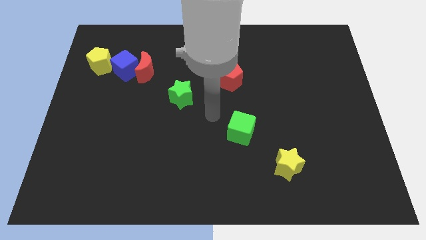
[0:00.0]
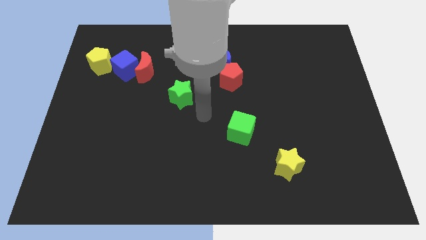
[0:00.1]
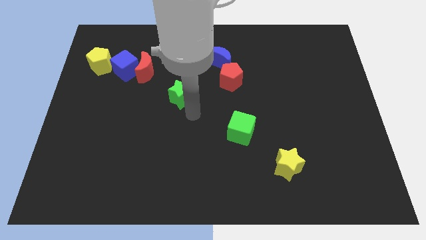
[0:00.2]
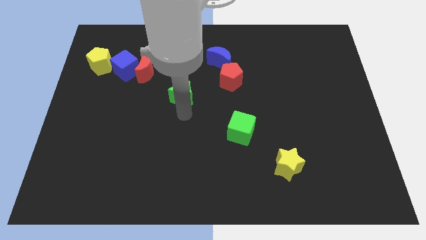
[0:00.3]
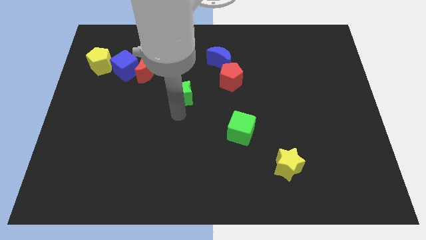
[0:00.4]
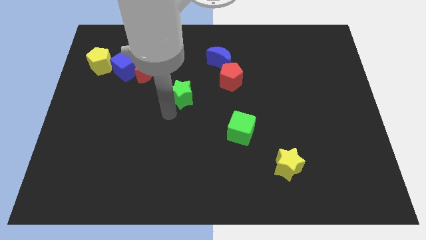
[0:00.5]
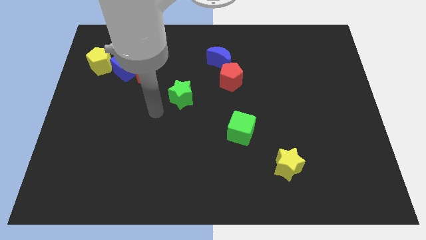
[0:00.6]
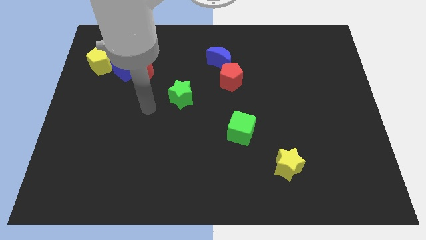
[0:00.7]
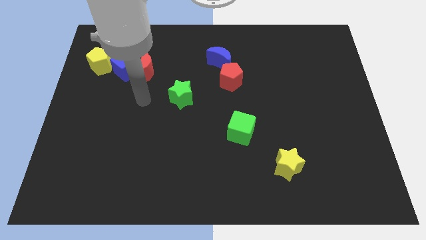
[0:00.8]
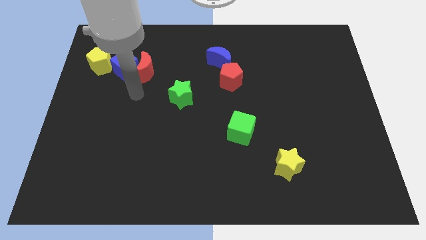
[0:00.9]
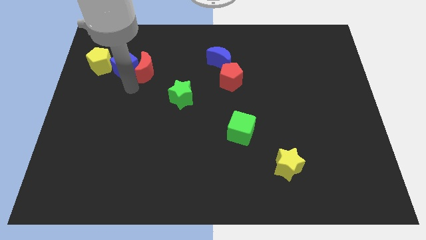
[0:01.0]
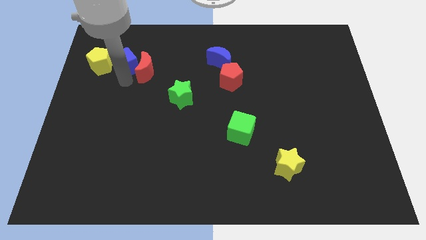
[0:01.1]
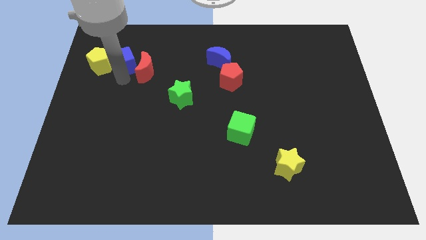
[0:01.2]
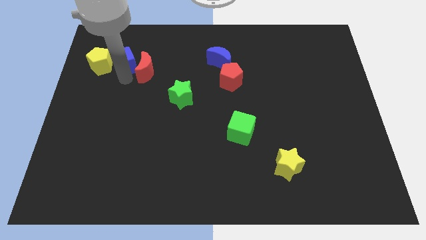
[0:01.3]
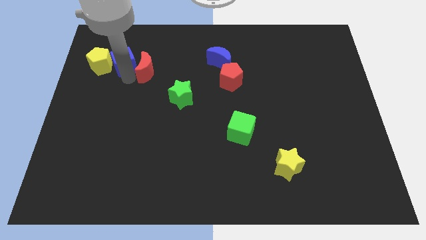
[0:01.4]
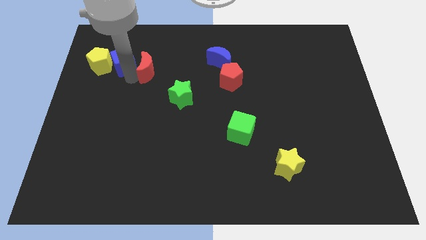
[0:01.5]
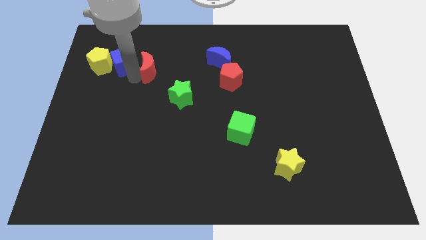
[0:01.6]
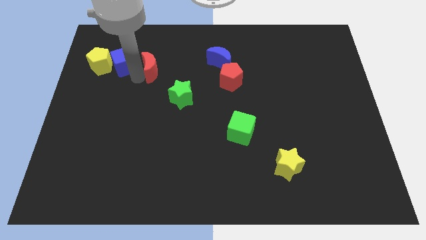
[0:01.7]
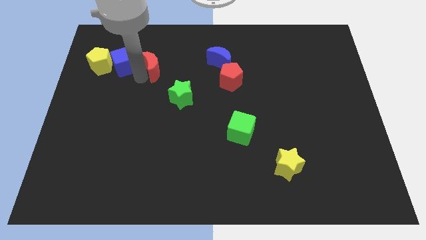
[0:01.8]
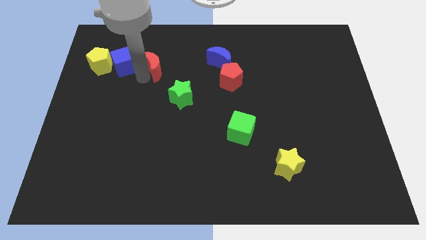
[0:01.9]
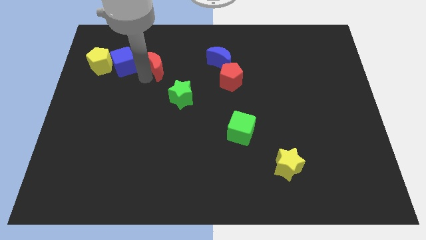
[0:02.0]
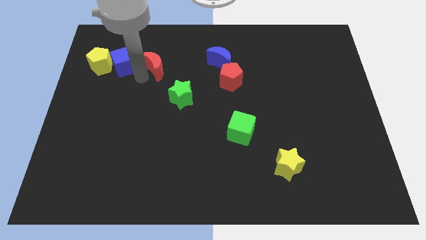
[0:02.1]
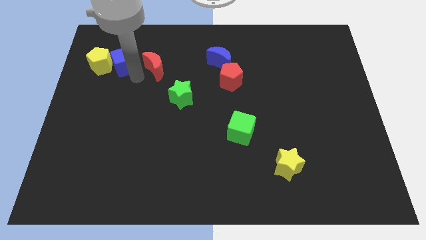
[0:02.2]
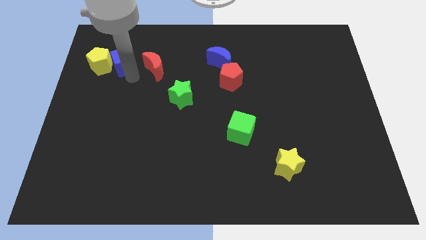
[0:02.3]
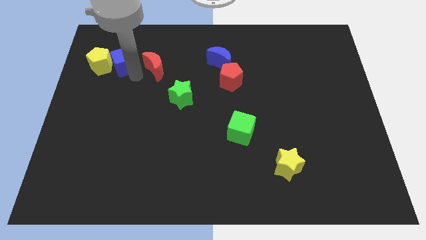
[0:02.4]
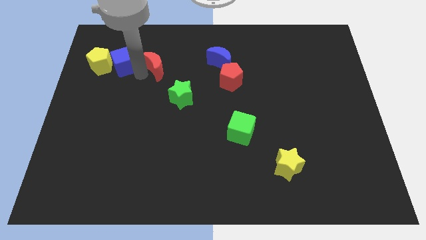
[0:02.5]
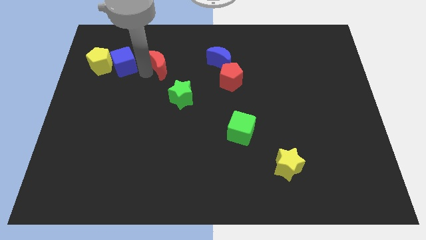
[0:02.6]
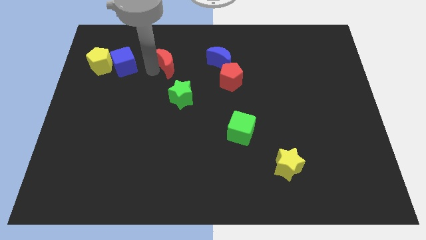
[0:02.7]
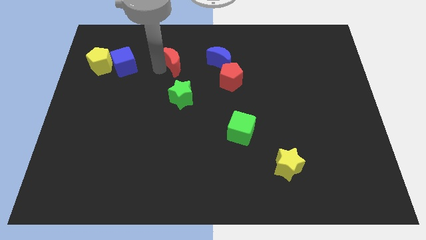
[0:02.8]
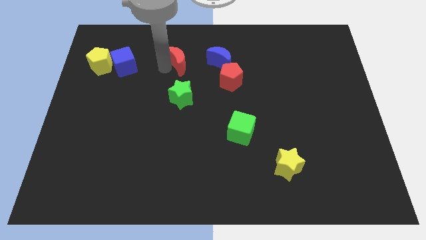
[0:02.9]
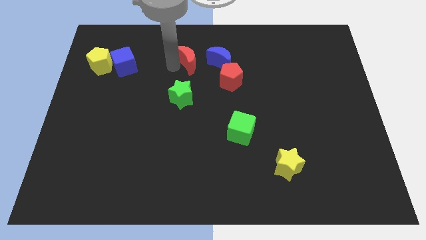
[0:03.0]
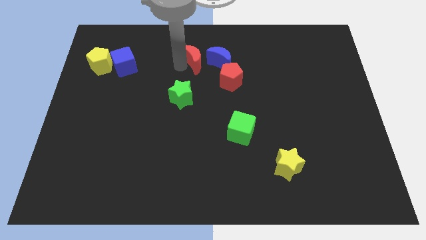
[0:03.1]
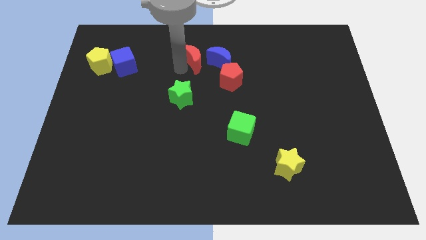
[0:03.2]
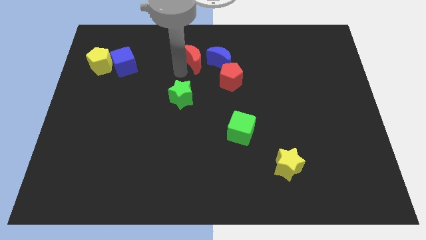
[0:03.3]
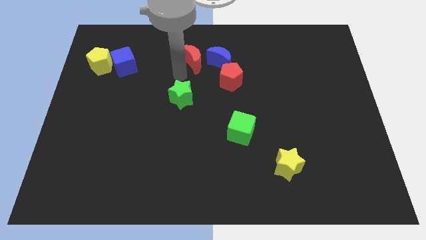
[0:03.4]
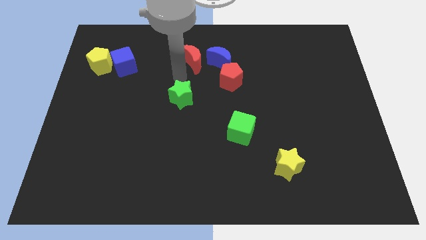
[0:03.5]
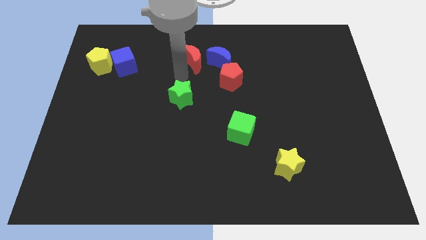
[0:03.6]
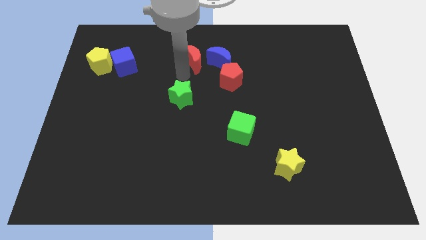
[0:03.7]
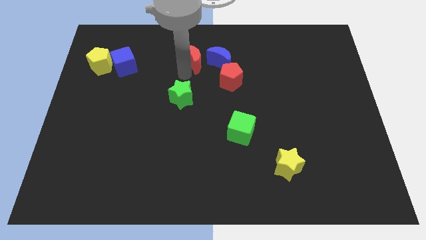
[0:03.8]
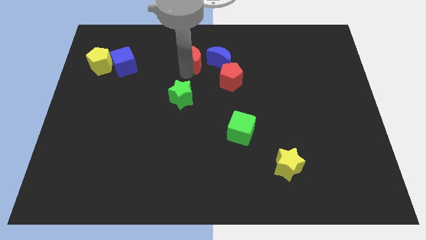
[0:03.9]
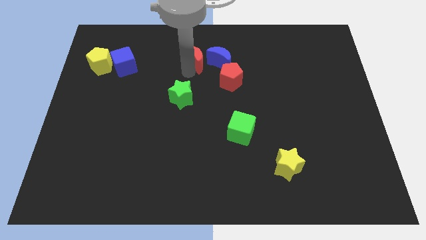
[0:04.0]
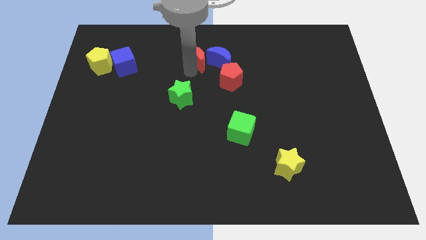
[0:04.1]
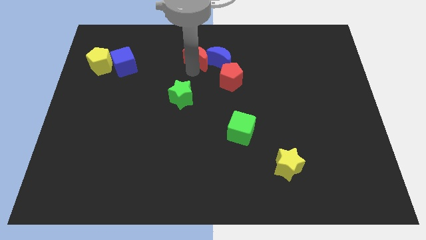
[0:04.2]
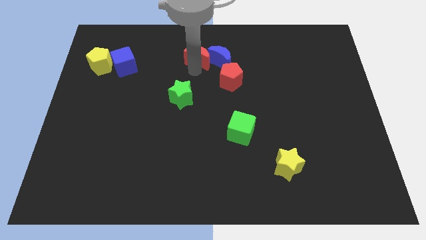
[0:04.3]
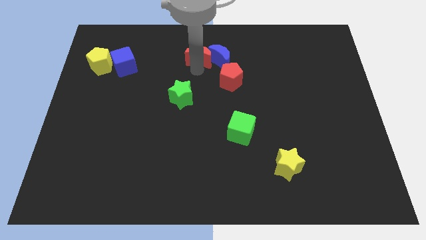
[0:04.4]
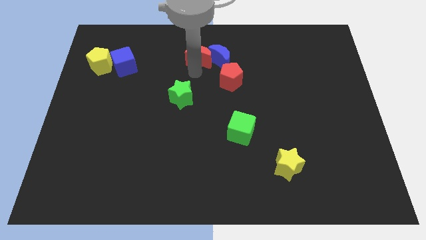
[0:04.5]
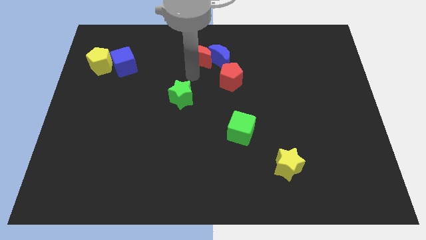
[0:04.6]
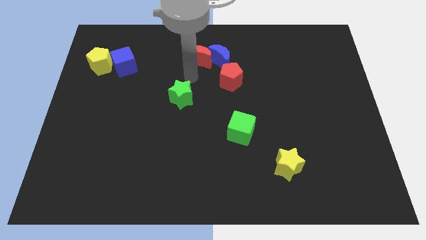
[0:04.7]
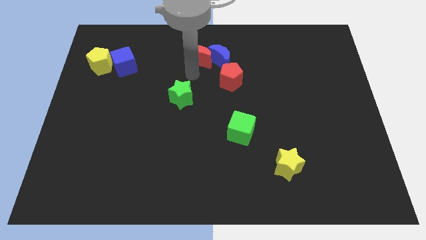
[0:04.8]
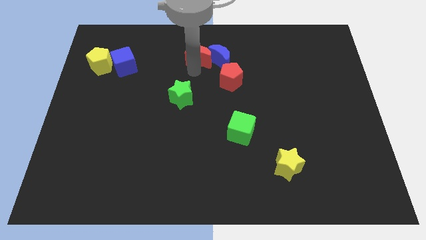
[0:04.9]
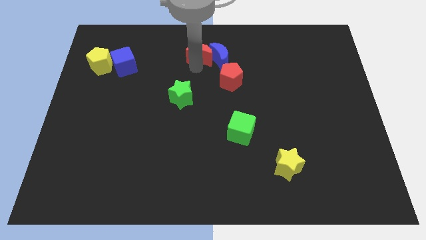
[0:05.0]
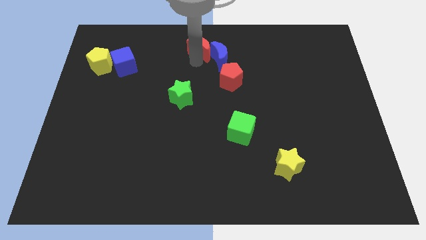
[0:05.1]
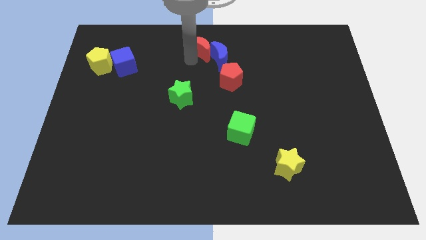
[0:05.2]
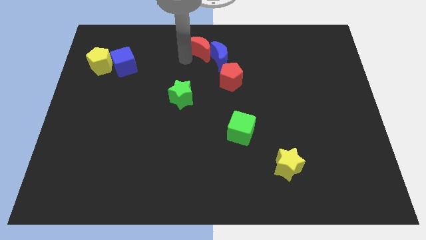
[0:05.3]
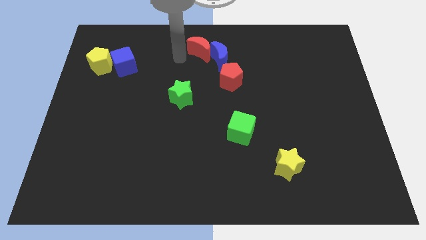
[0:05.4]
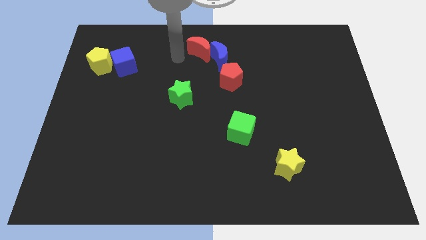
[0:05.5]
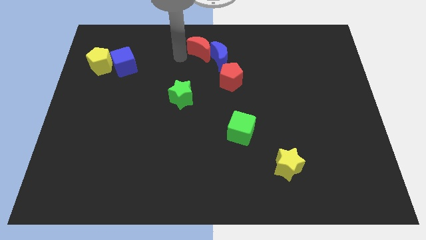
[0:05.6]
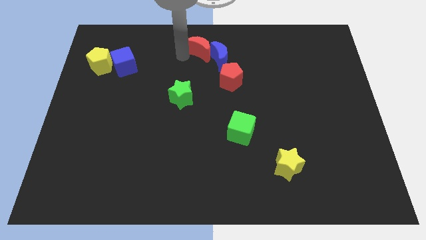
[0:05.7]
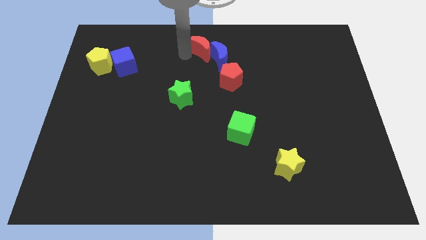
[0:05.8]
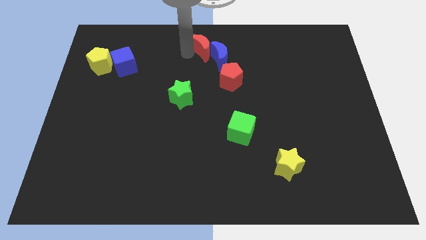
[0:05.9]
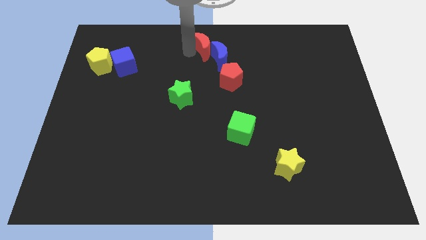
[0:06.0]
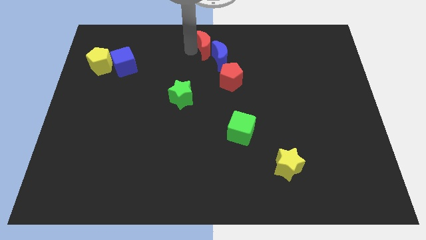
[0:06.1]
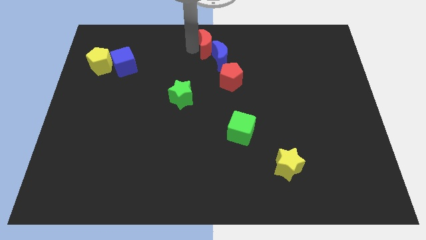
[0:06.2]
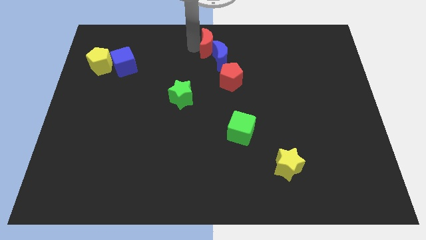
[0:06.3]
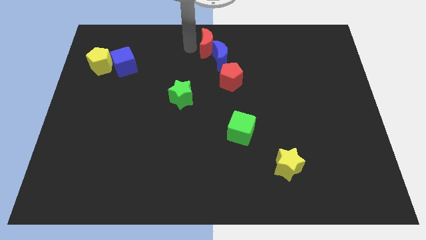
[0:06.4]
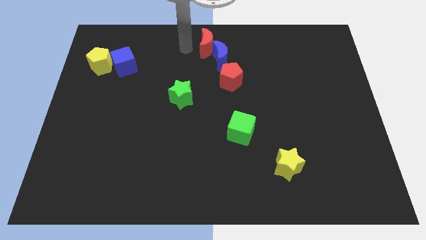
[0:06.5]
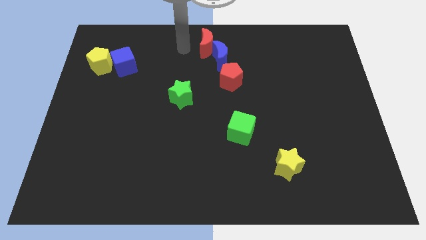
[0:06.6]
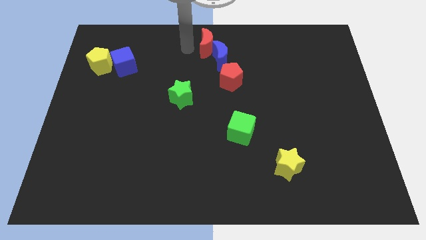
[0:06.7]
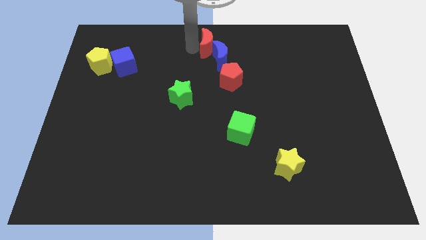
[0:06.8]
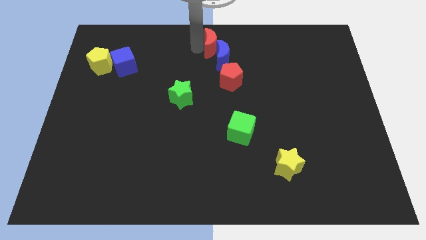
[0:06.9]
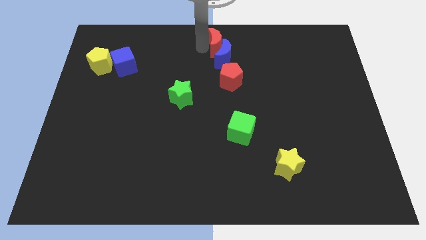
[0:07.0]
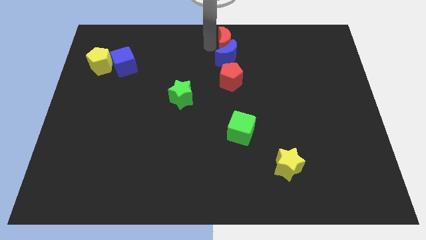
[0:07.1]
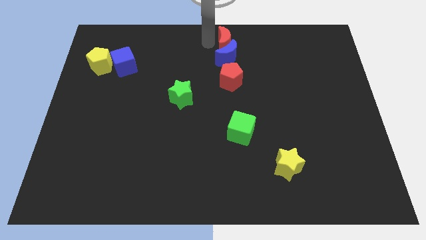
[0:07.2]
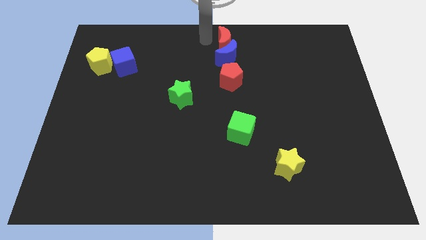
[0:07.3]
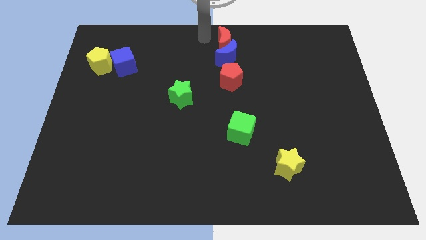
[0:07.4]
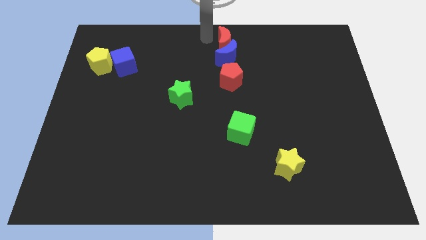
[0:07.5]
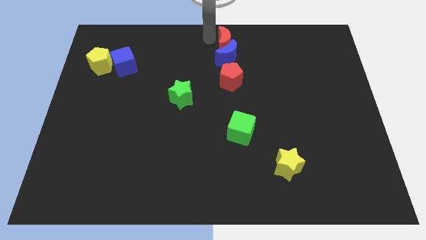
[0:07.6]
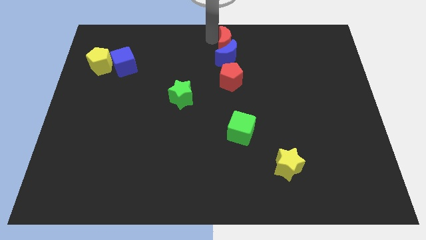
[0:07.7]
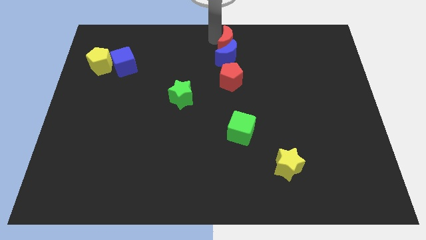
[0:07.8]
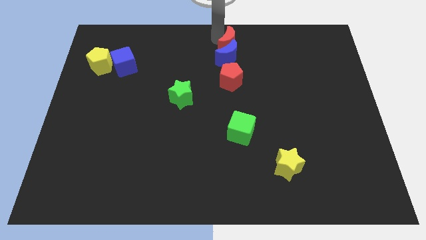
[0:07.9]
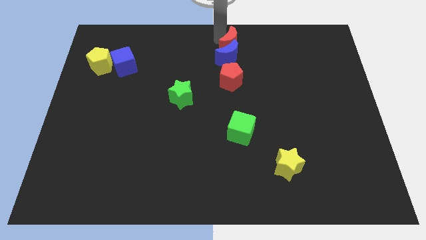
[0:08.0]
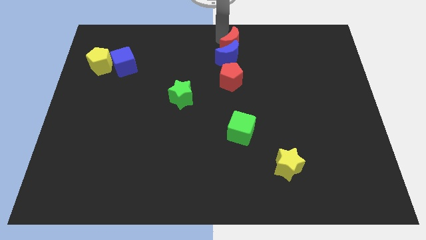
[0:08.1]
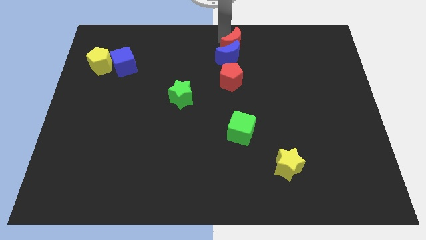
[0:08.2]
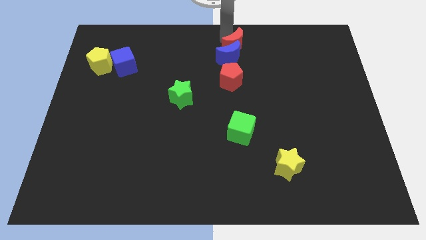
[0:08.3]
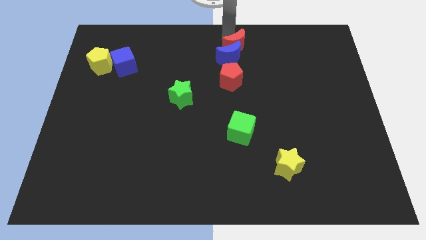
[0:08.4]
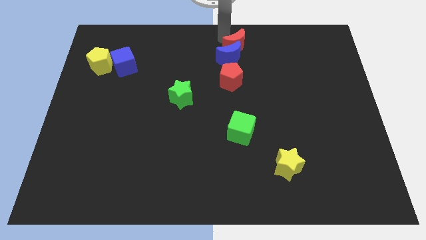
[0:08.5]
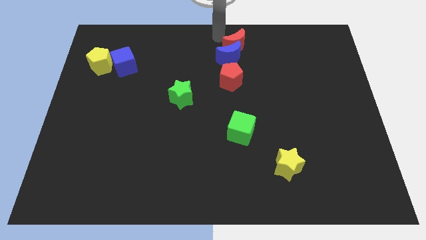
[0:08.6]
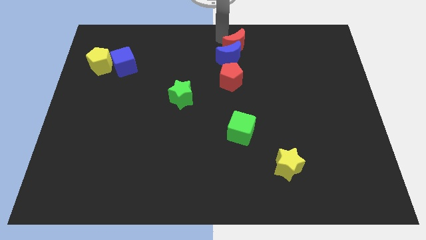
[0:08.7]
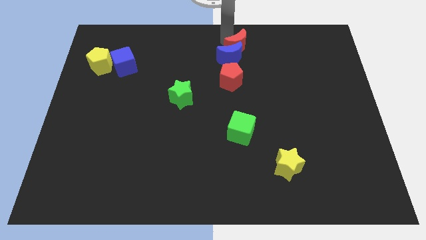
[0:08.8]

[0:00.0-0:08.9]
slide the red moon right
